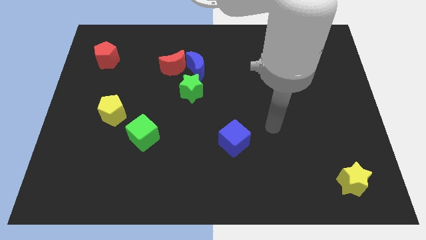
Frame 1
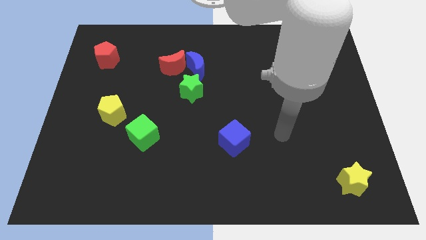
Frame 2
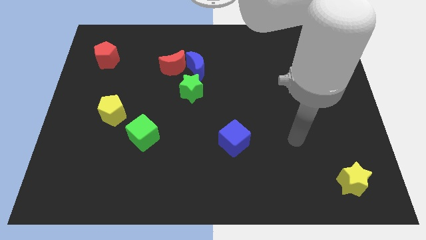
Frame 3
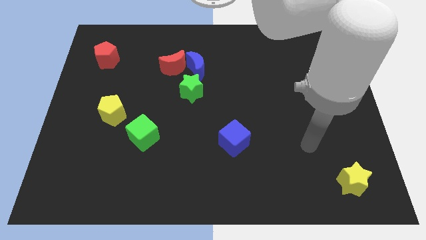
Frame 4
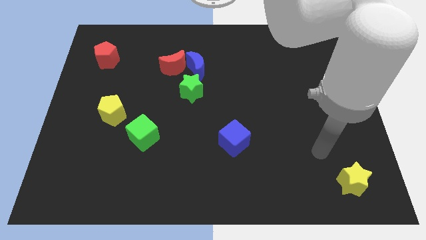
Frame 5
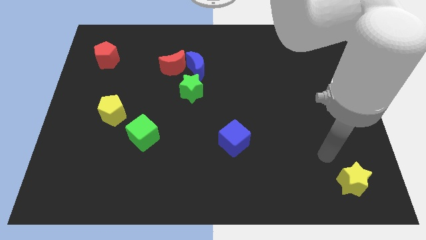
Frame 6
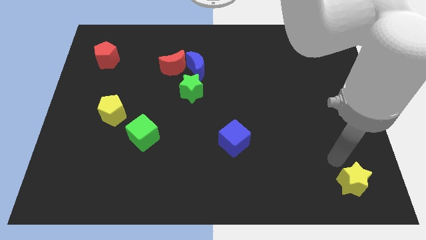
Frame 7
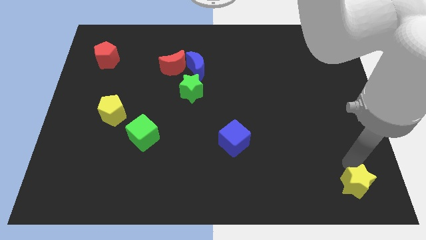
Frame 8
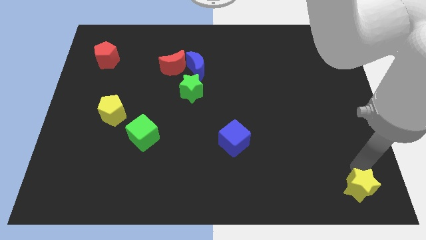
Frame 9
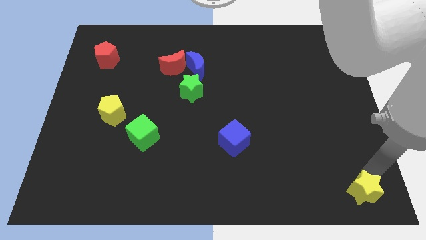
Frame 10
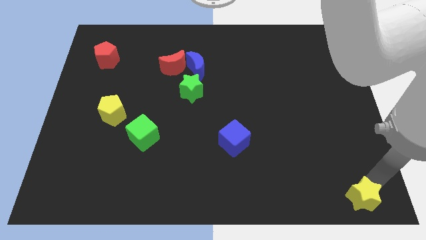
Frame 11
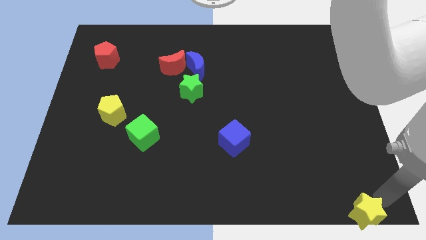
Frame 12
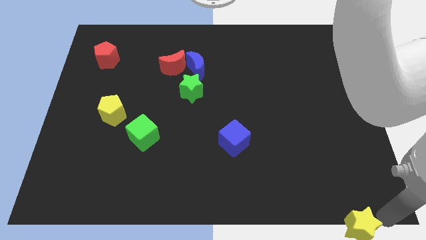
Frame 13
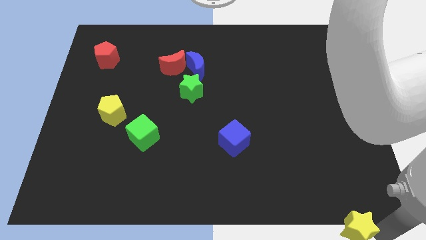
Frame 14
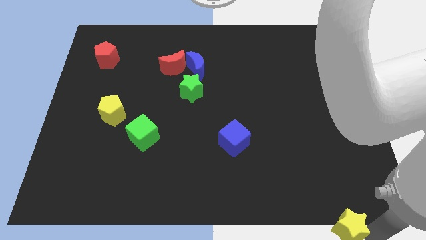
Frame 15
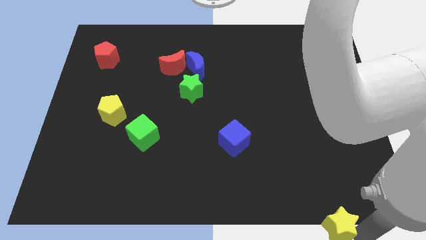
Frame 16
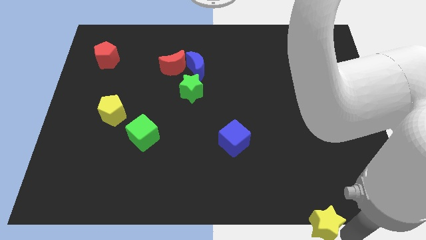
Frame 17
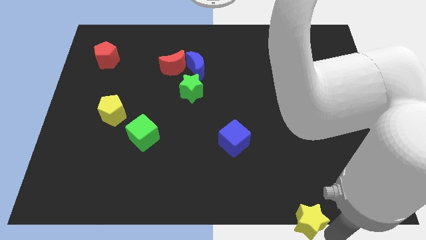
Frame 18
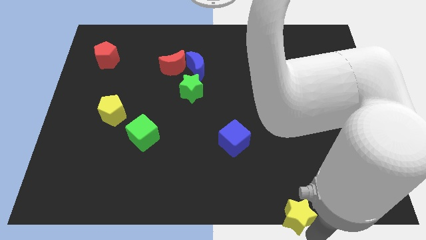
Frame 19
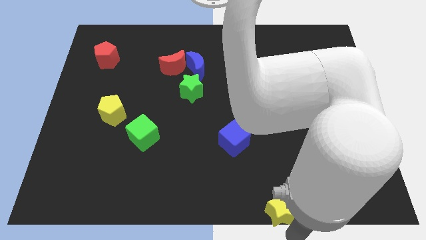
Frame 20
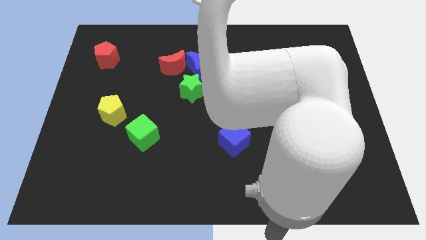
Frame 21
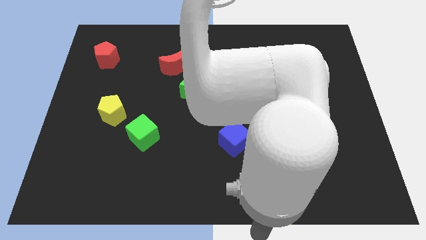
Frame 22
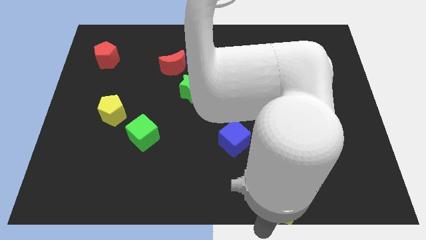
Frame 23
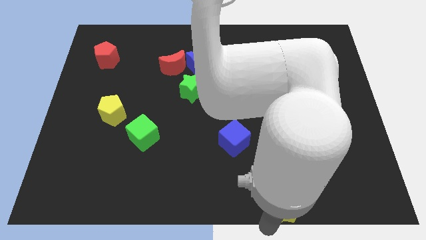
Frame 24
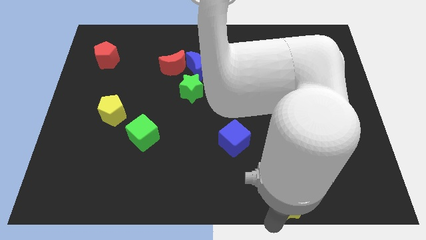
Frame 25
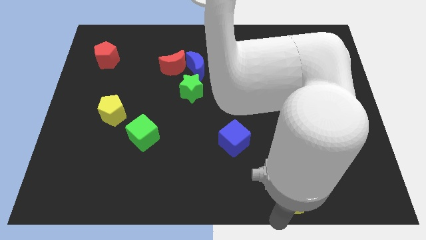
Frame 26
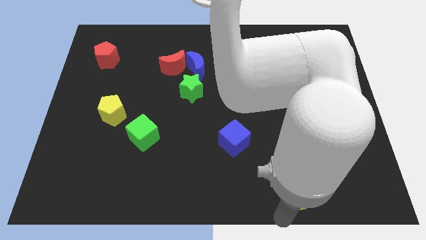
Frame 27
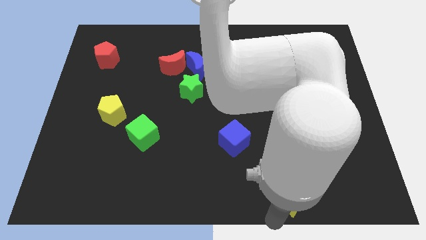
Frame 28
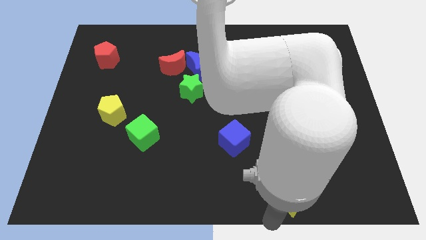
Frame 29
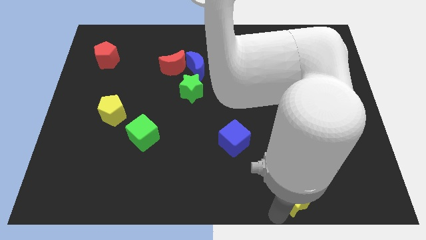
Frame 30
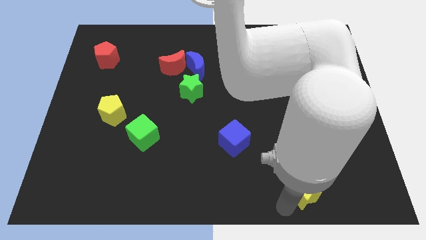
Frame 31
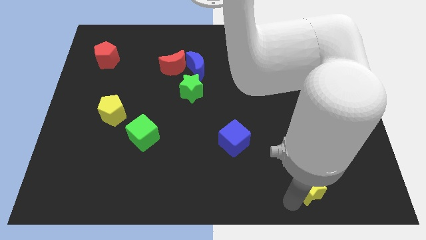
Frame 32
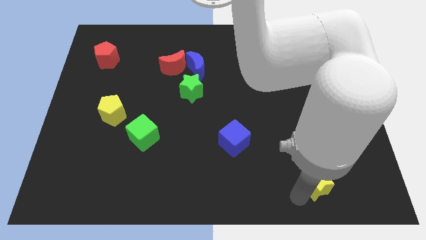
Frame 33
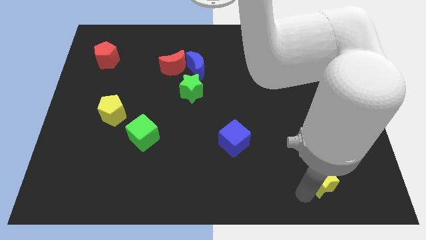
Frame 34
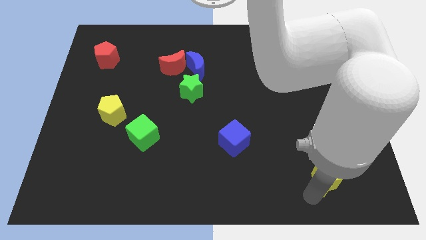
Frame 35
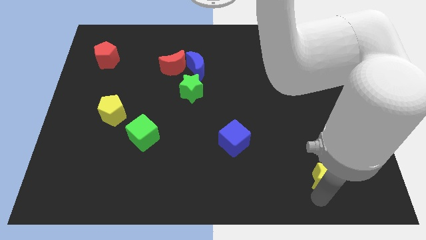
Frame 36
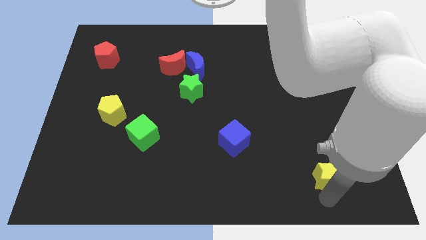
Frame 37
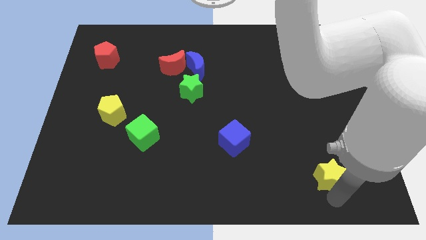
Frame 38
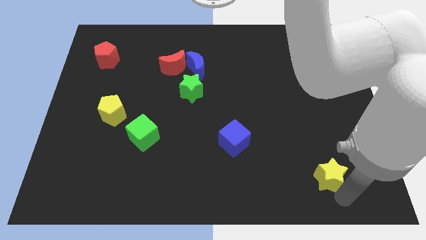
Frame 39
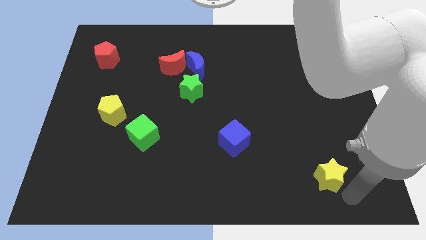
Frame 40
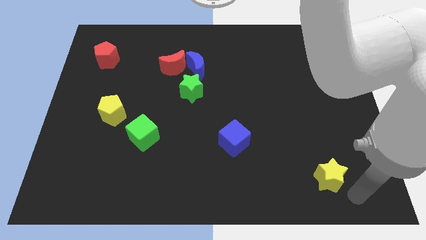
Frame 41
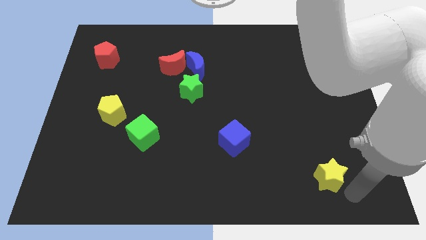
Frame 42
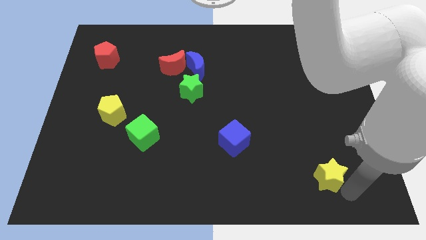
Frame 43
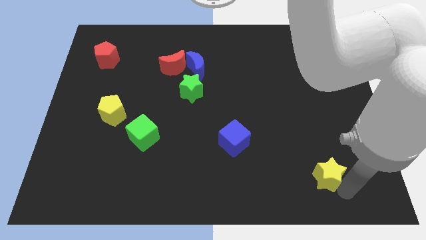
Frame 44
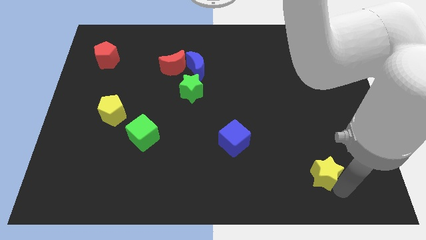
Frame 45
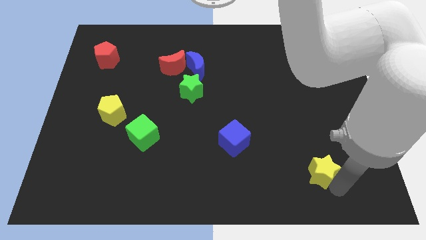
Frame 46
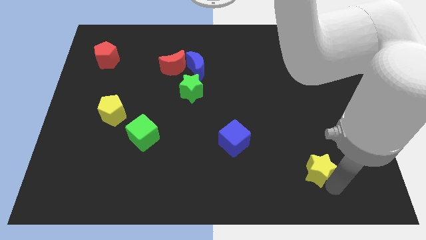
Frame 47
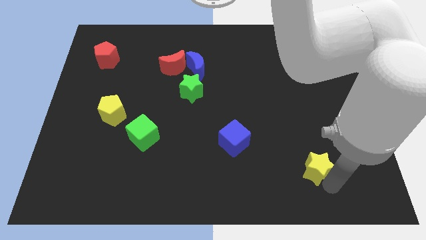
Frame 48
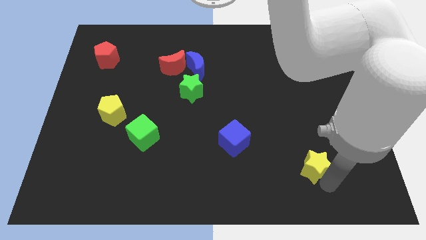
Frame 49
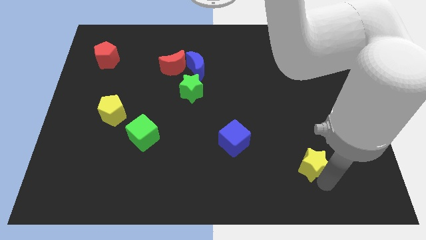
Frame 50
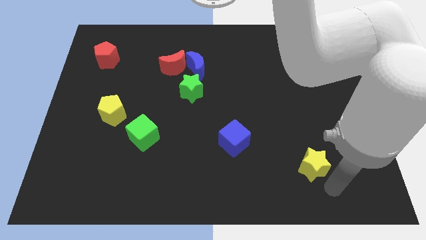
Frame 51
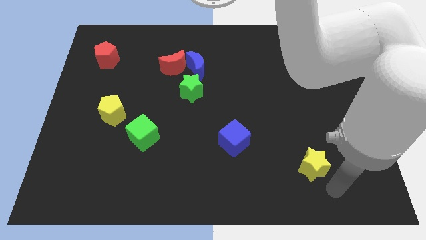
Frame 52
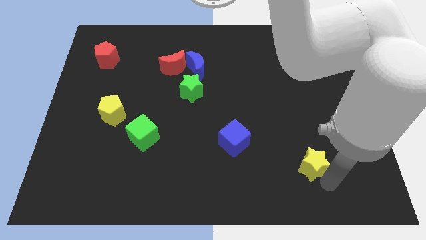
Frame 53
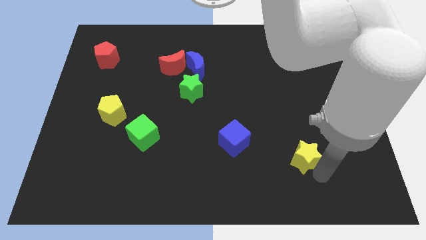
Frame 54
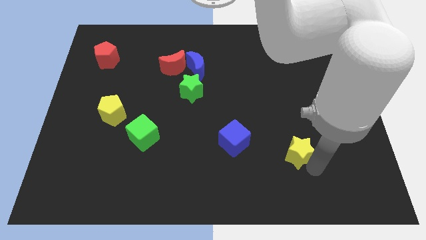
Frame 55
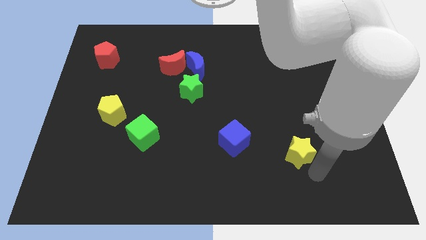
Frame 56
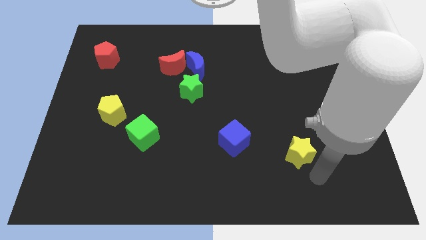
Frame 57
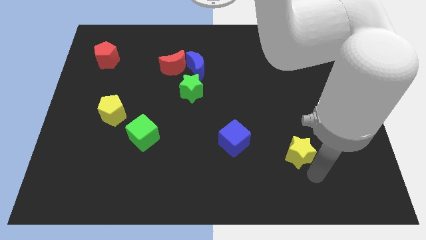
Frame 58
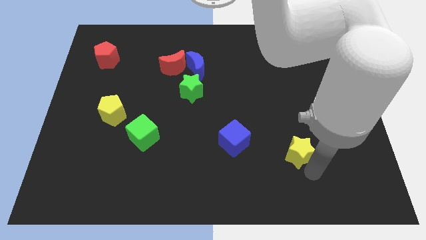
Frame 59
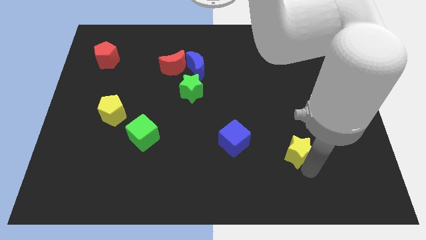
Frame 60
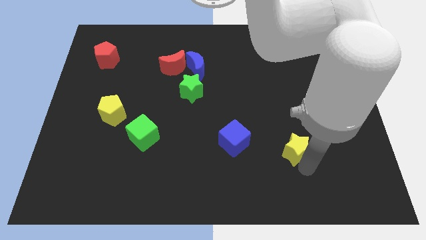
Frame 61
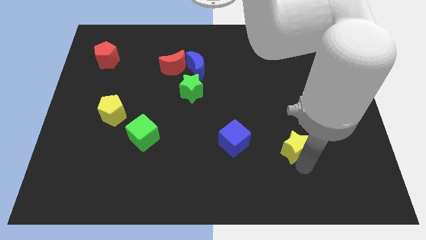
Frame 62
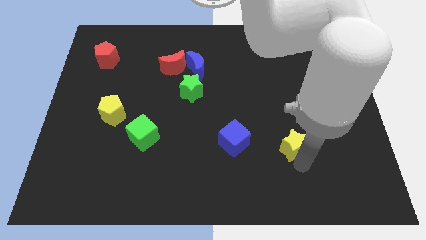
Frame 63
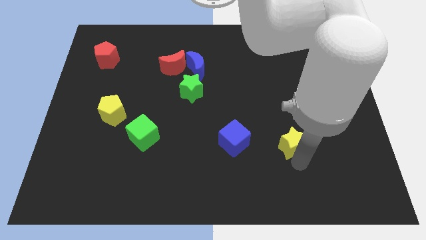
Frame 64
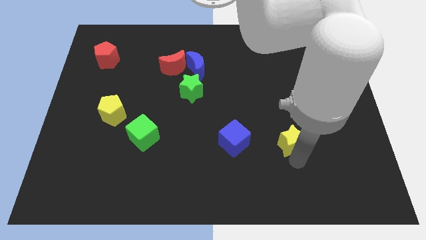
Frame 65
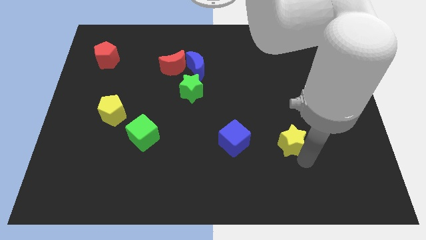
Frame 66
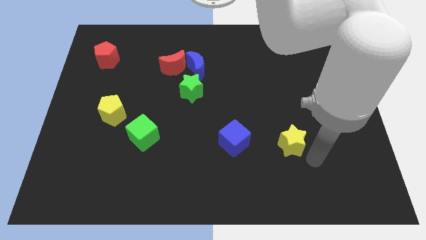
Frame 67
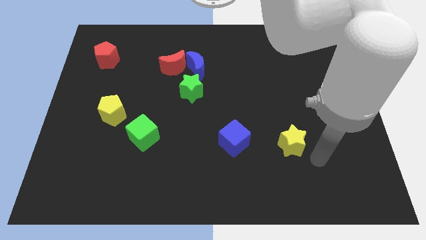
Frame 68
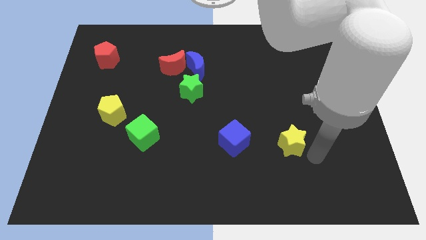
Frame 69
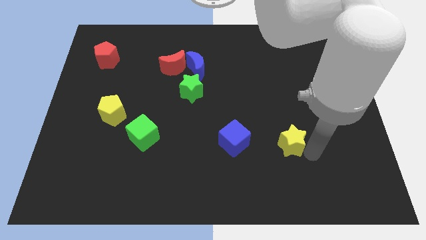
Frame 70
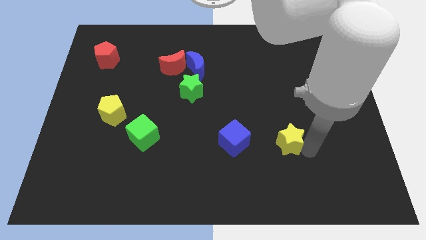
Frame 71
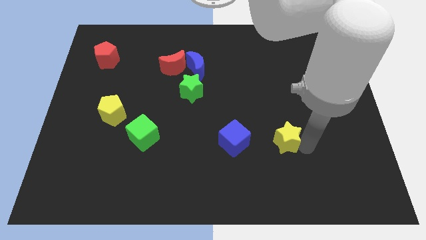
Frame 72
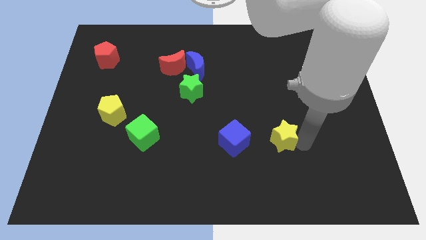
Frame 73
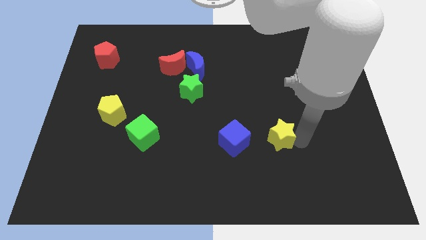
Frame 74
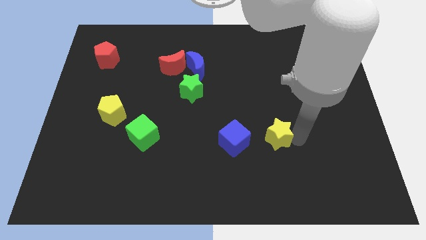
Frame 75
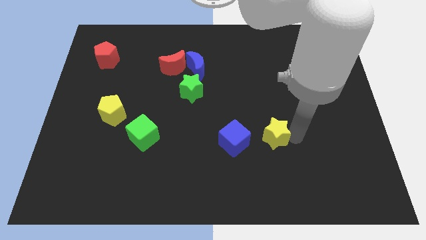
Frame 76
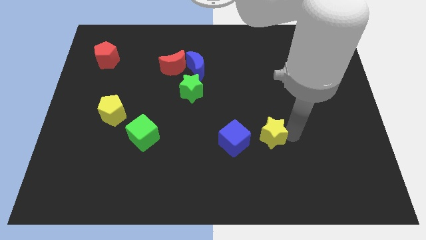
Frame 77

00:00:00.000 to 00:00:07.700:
push the yellow star to the top right side of the blue cube
